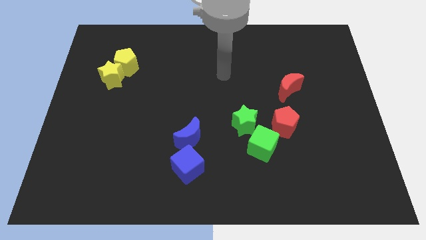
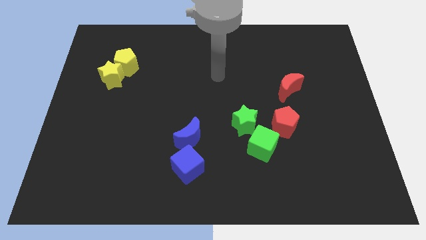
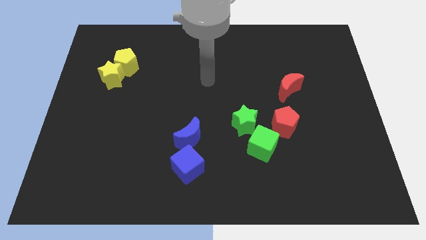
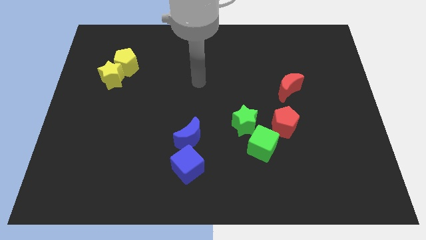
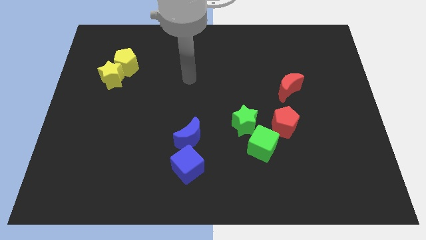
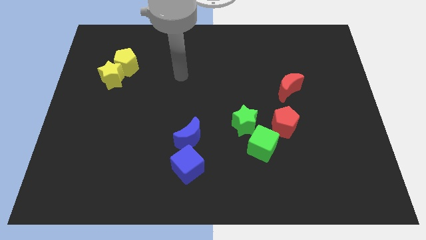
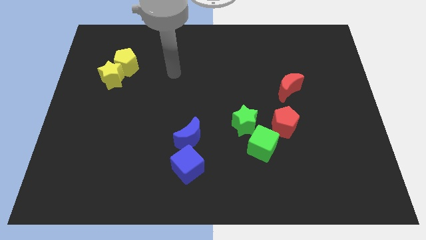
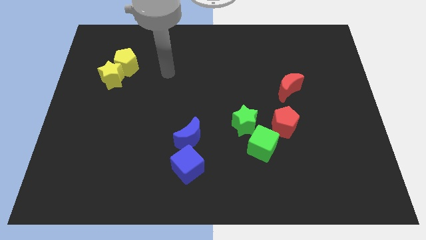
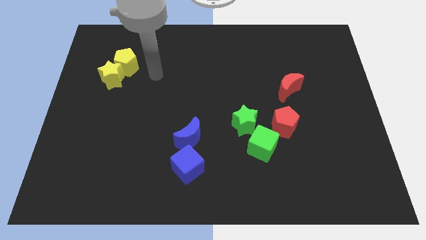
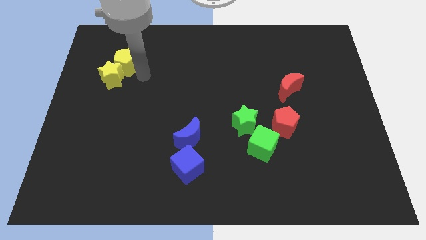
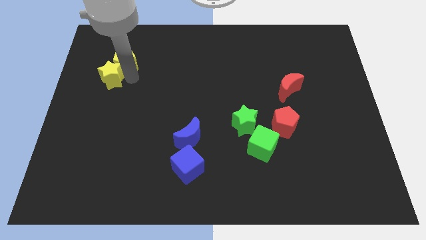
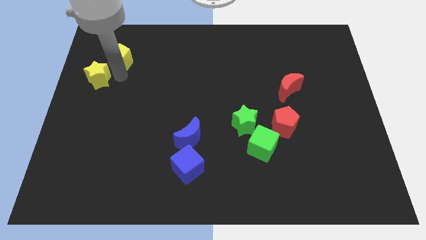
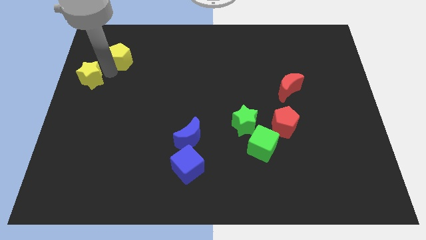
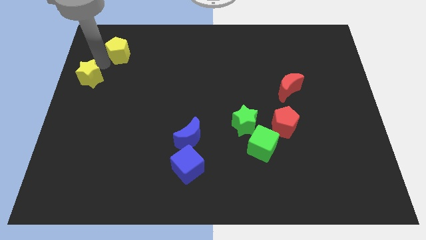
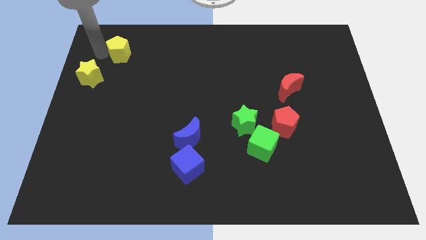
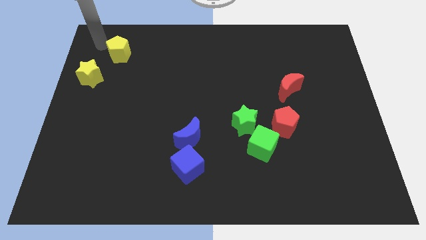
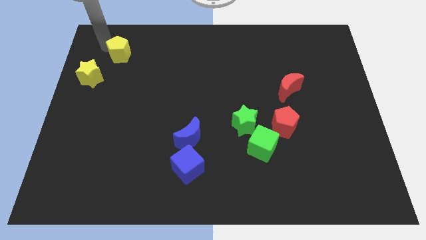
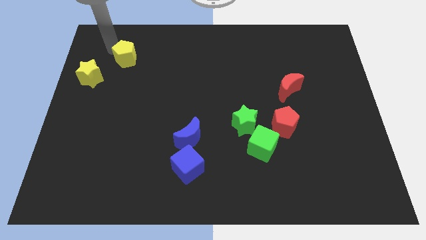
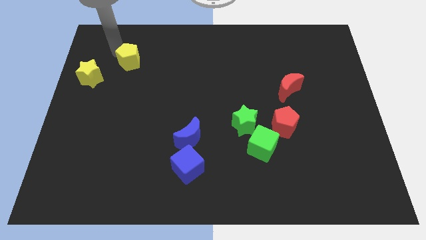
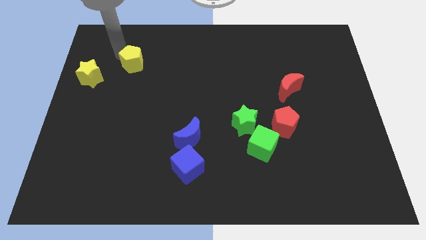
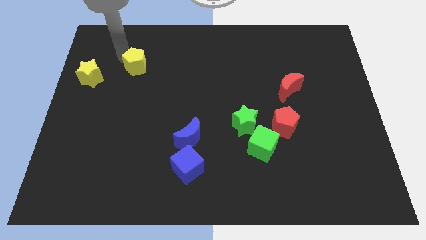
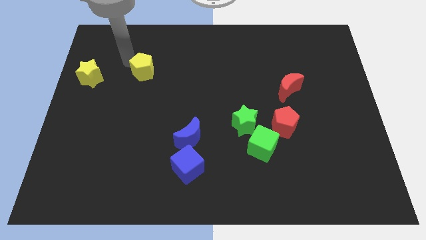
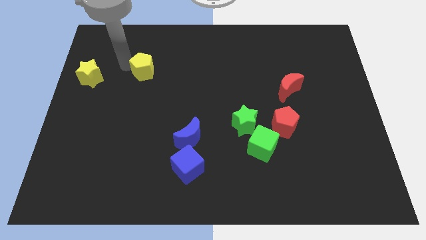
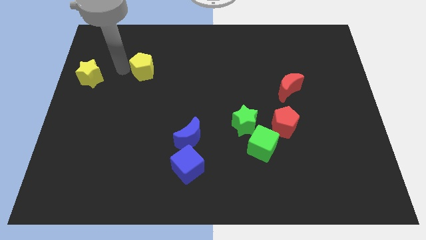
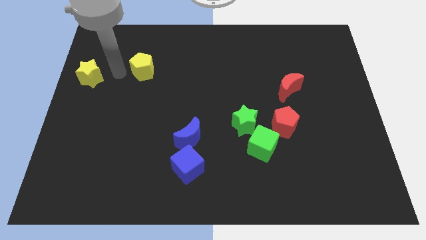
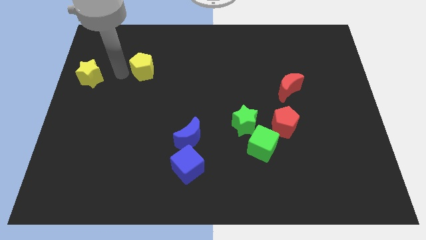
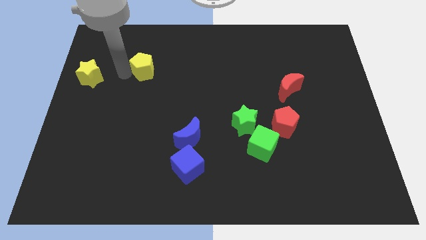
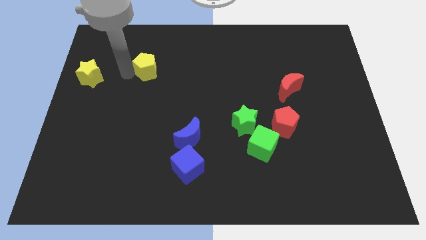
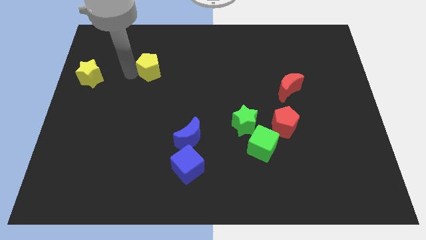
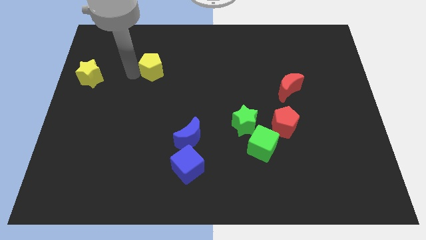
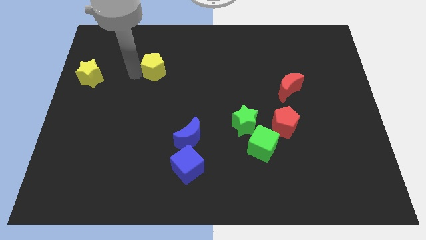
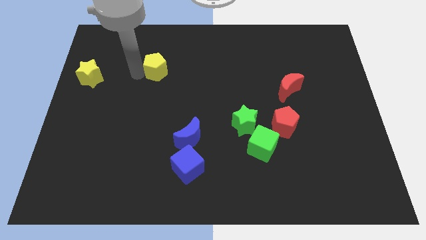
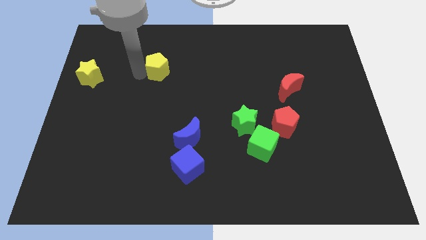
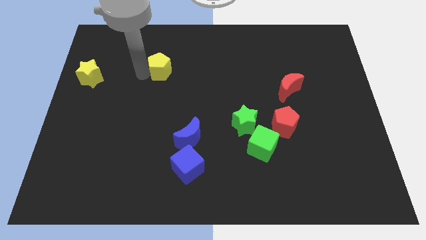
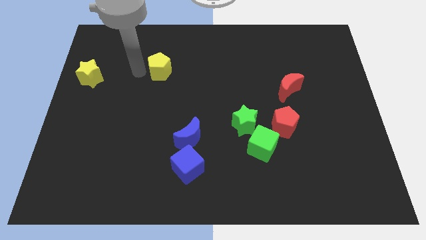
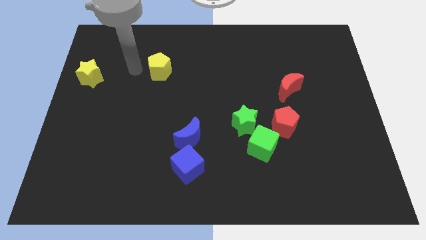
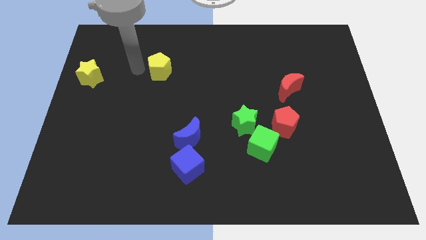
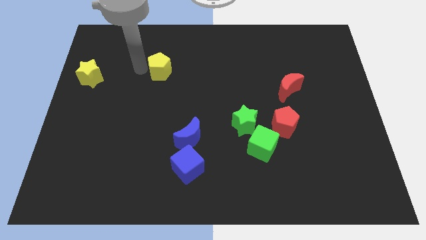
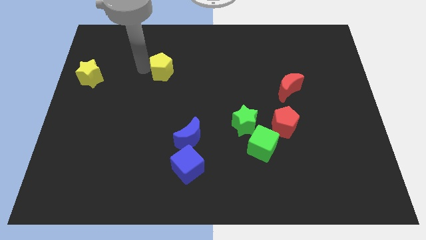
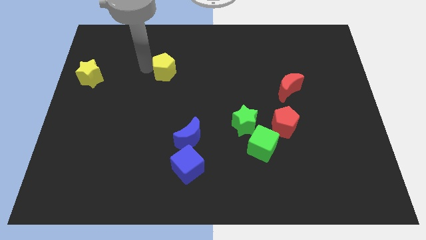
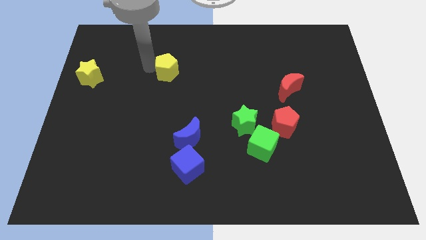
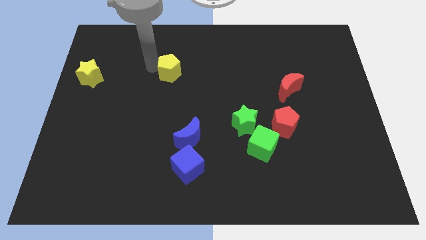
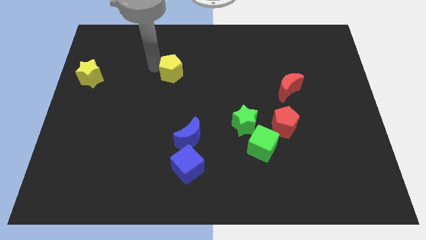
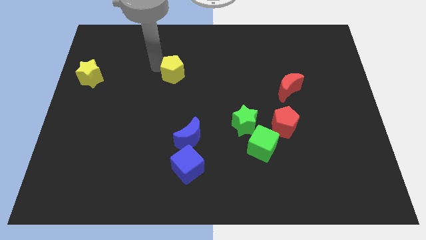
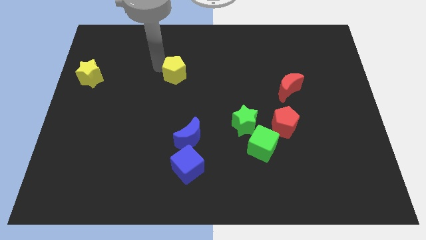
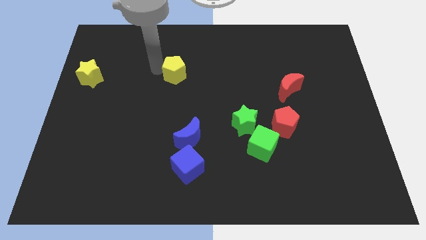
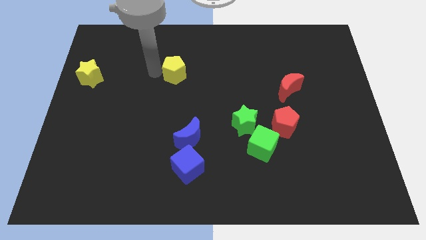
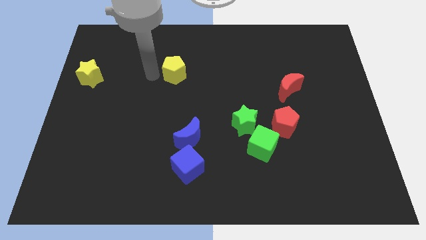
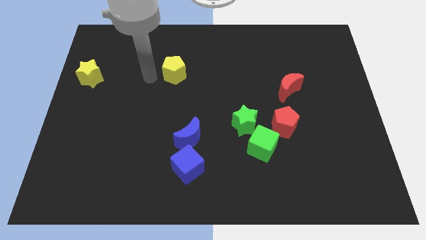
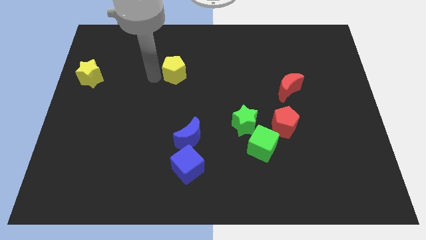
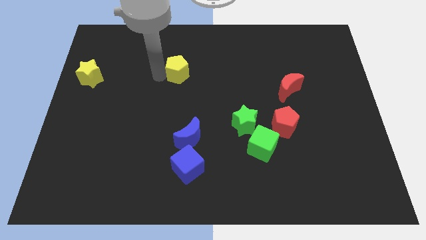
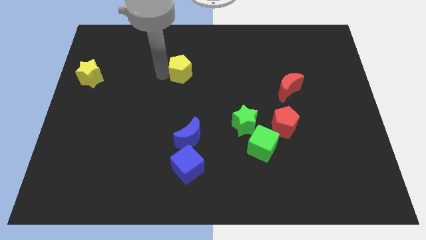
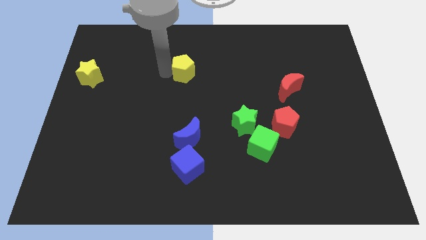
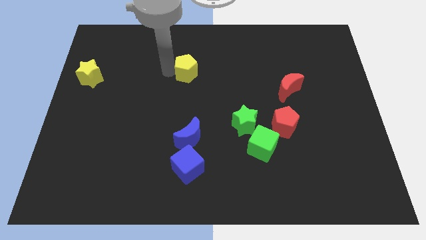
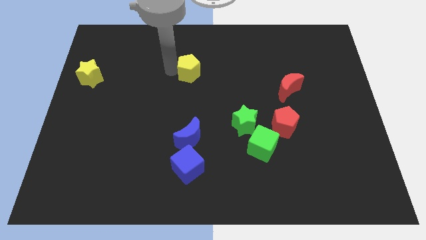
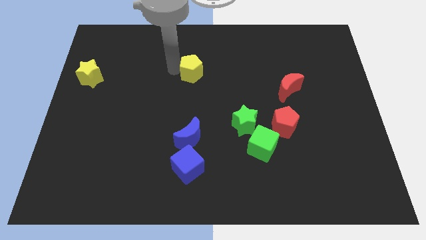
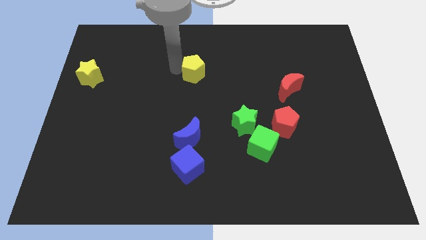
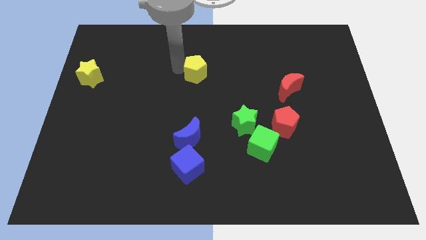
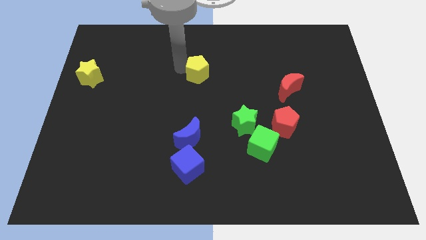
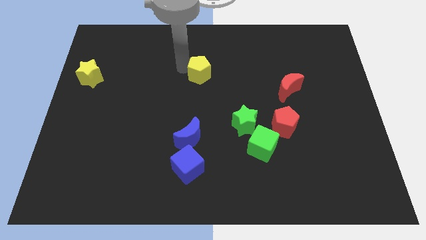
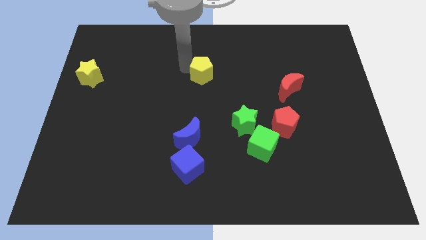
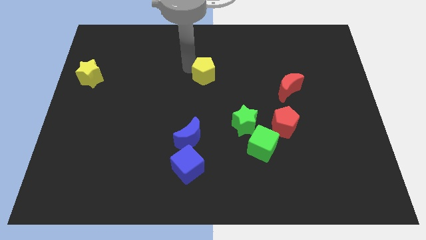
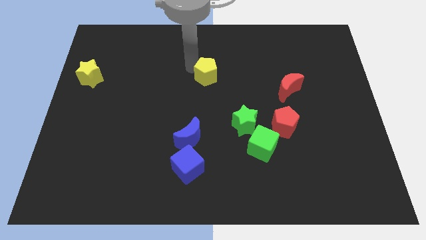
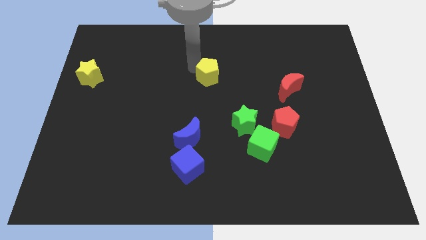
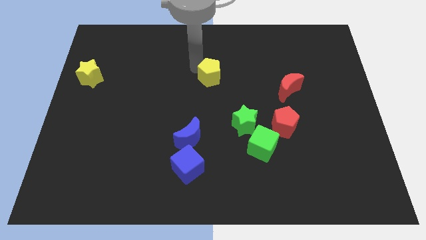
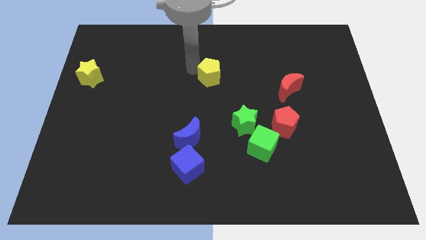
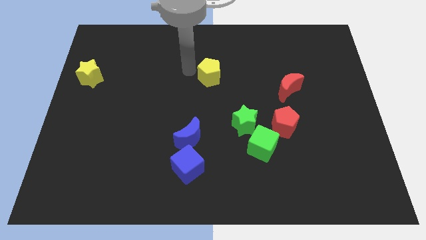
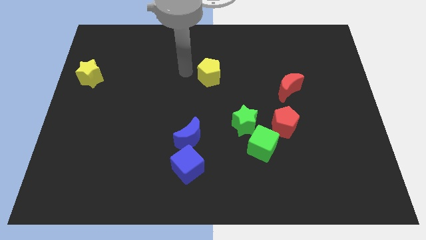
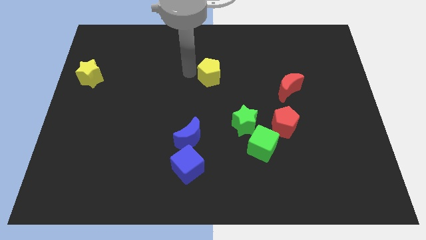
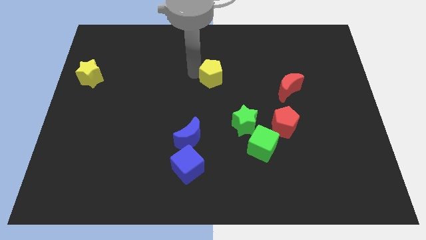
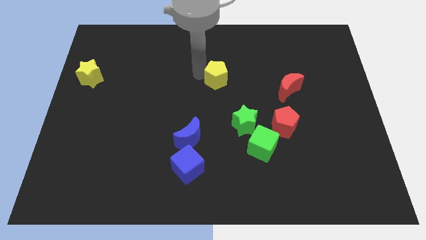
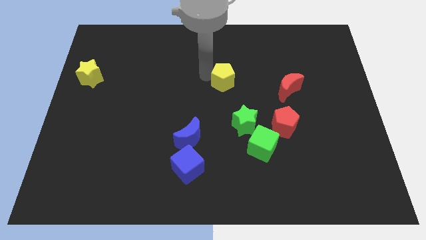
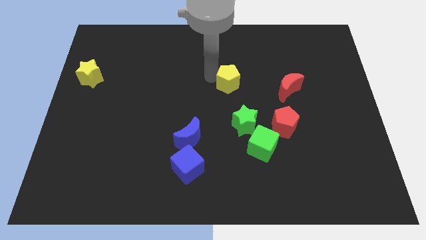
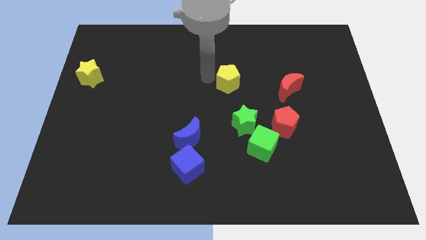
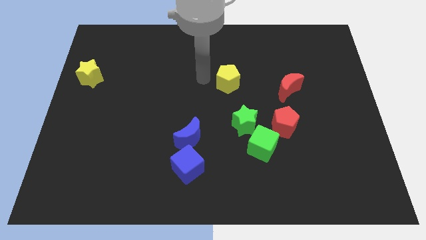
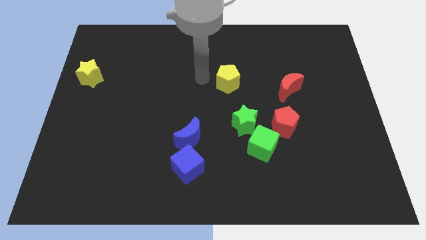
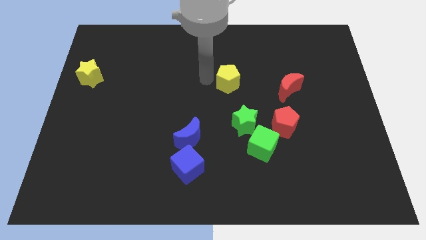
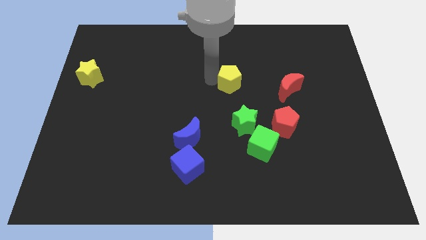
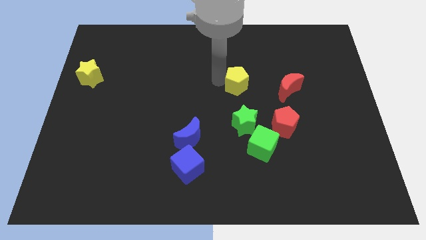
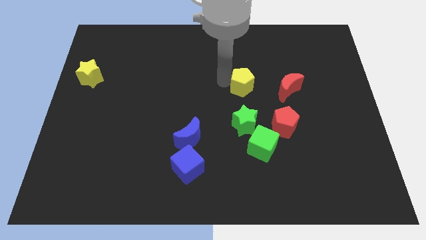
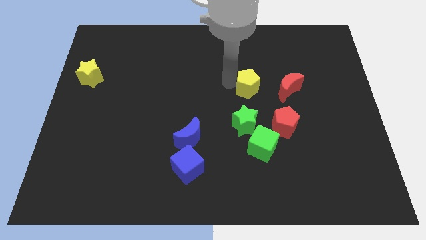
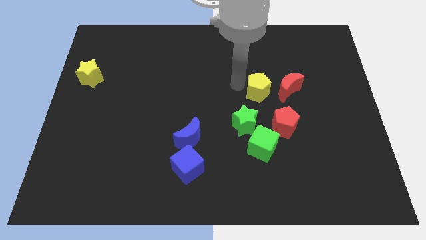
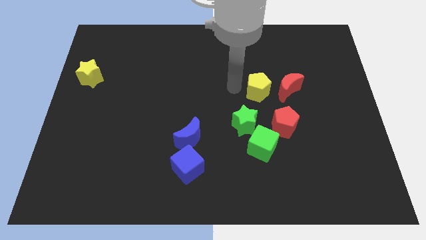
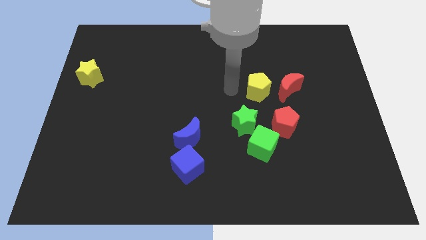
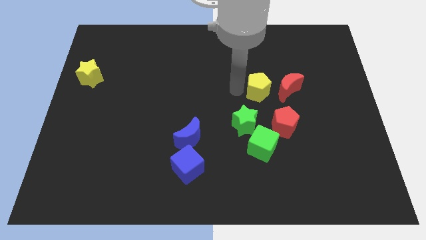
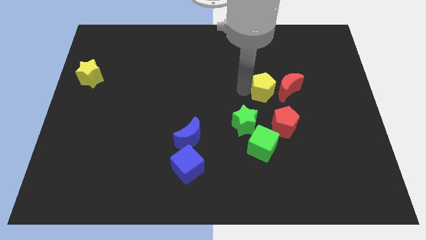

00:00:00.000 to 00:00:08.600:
move the yellow pentagon towards the red moon
